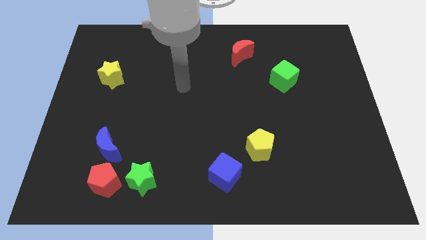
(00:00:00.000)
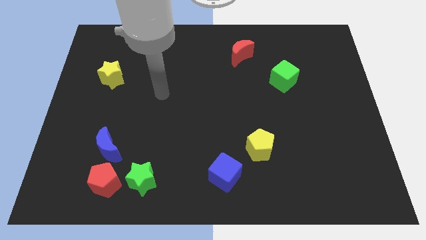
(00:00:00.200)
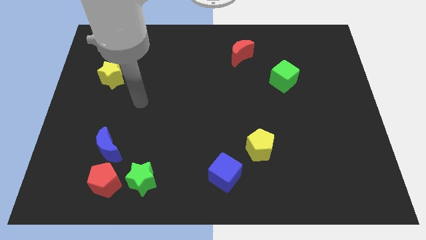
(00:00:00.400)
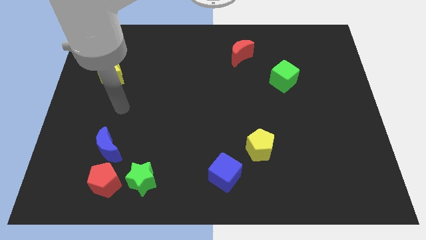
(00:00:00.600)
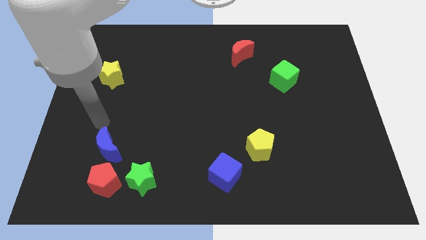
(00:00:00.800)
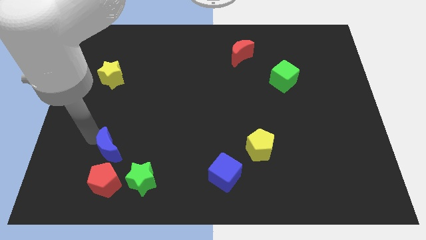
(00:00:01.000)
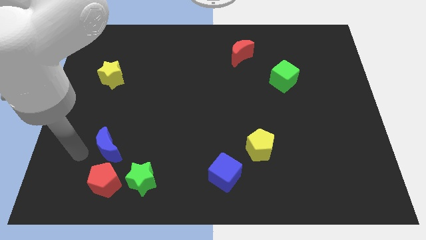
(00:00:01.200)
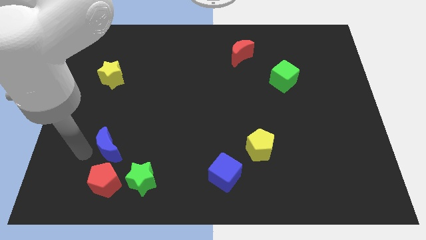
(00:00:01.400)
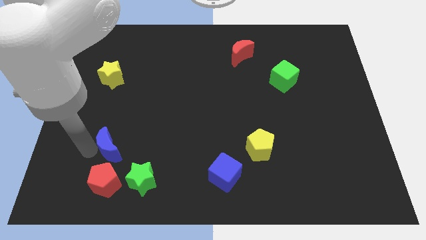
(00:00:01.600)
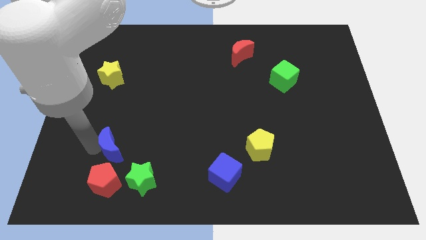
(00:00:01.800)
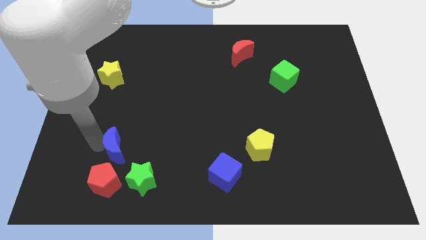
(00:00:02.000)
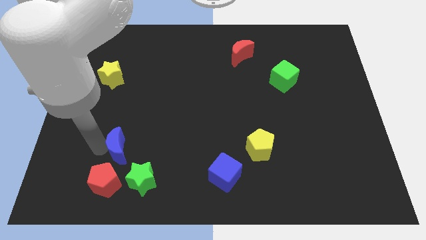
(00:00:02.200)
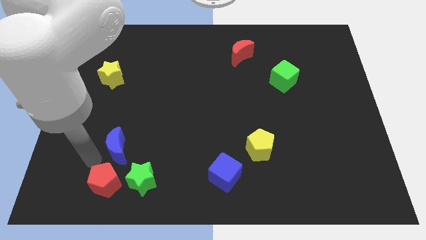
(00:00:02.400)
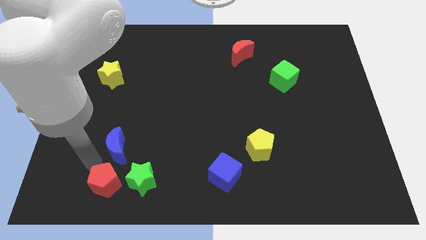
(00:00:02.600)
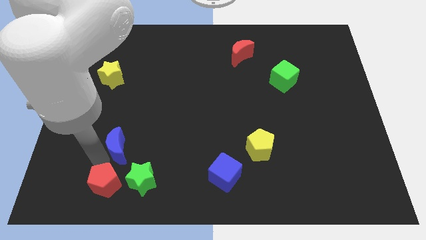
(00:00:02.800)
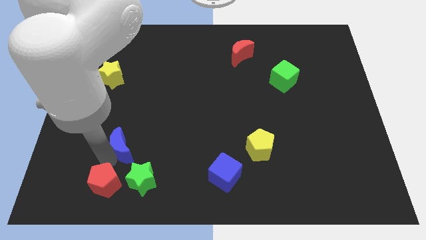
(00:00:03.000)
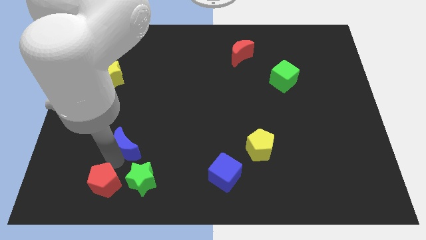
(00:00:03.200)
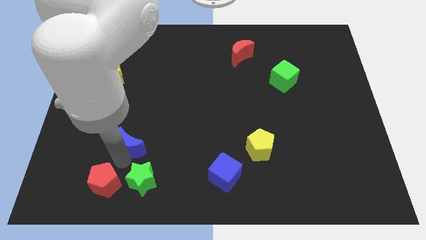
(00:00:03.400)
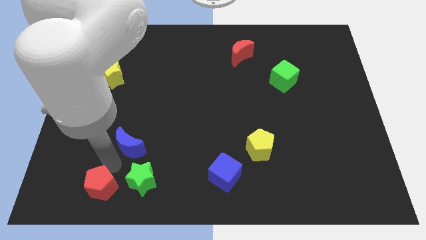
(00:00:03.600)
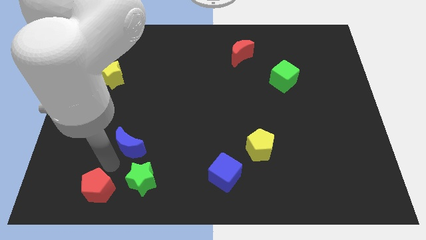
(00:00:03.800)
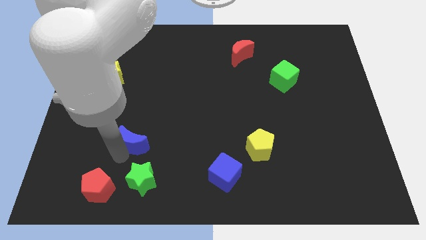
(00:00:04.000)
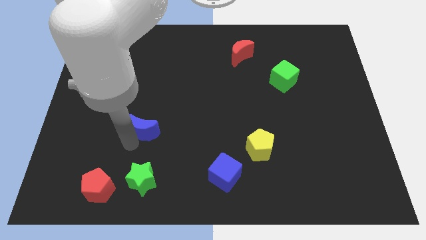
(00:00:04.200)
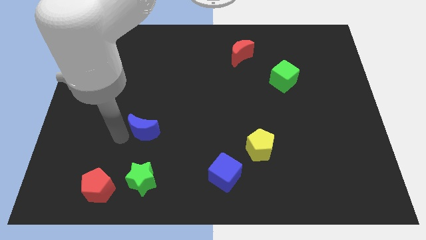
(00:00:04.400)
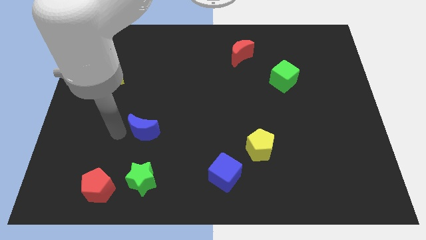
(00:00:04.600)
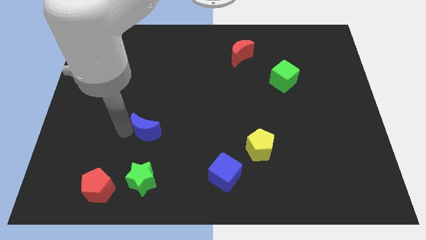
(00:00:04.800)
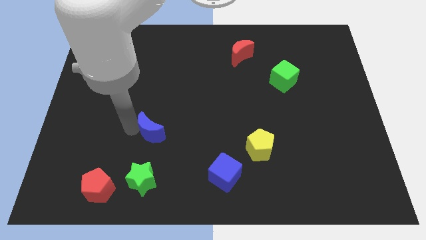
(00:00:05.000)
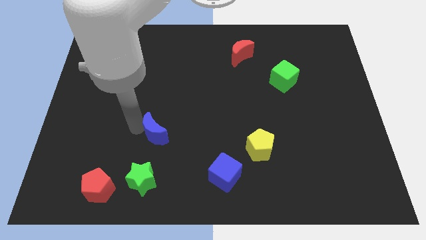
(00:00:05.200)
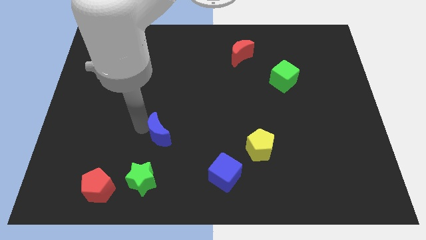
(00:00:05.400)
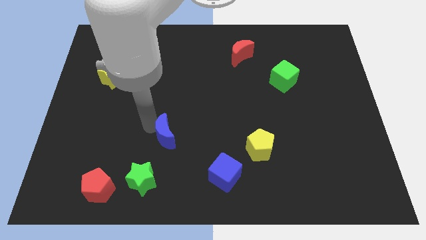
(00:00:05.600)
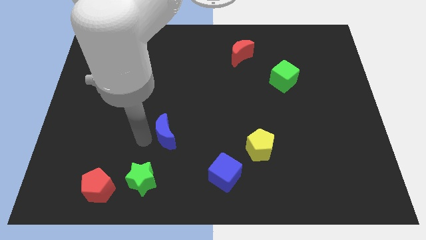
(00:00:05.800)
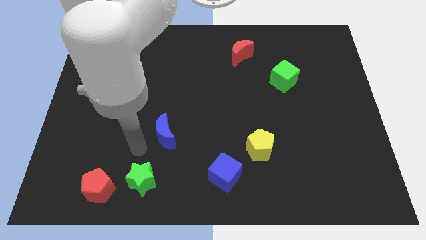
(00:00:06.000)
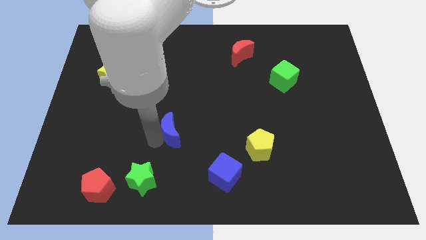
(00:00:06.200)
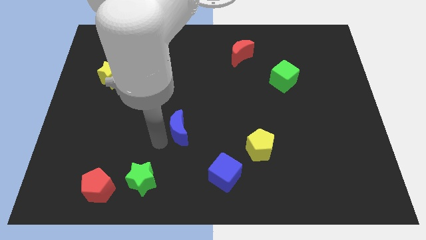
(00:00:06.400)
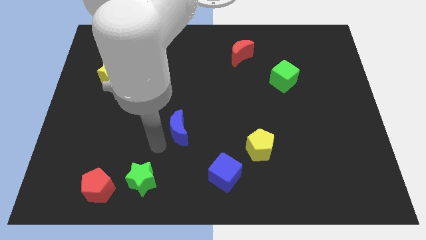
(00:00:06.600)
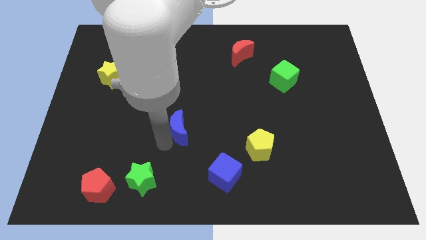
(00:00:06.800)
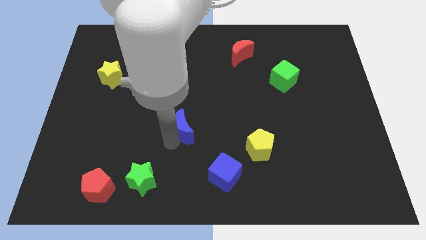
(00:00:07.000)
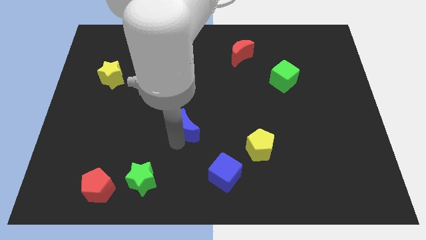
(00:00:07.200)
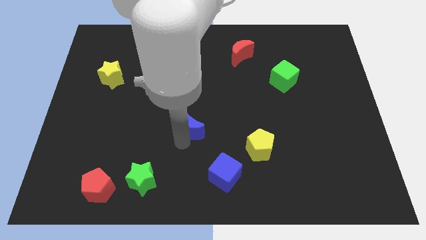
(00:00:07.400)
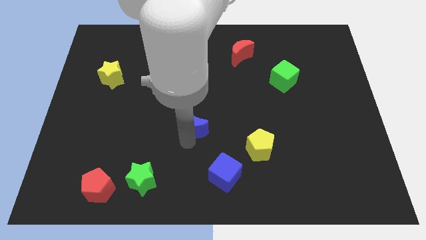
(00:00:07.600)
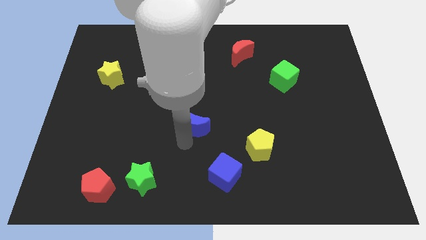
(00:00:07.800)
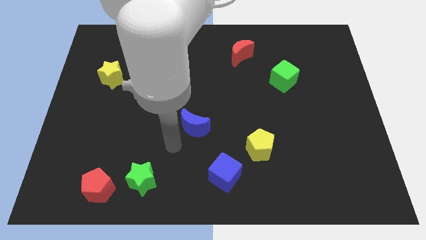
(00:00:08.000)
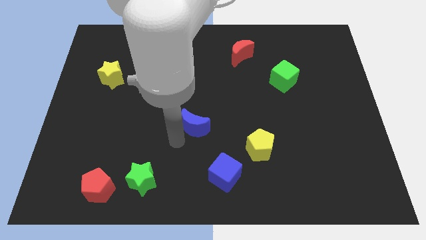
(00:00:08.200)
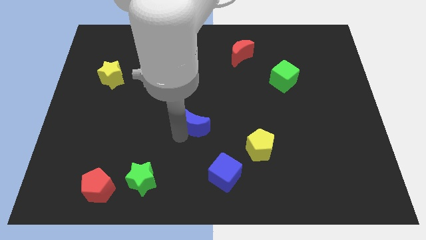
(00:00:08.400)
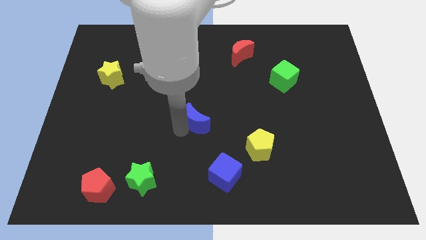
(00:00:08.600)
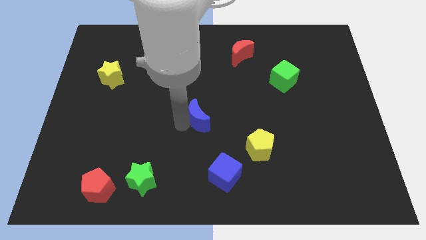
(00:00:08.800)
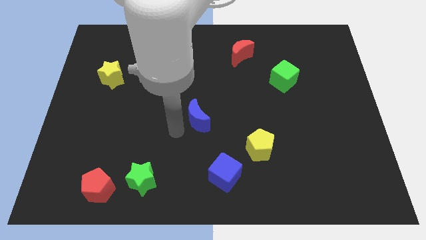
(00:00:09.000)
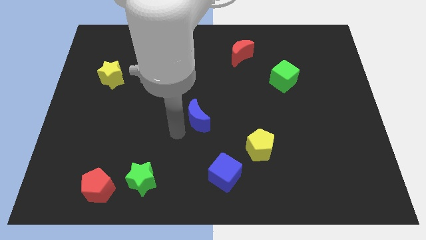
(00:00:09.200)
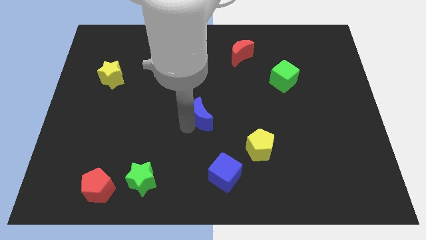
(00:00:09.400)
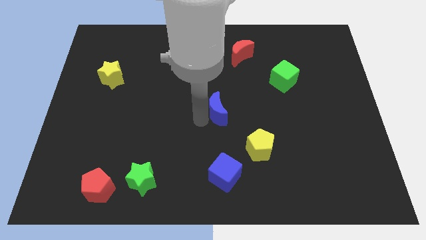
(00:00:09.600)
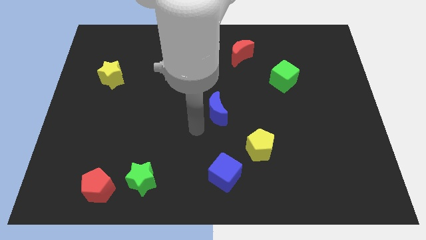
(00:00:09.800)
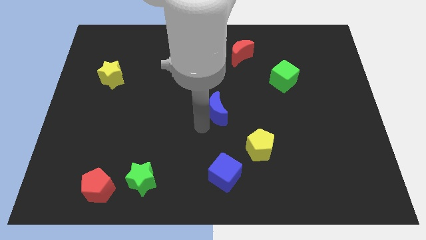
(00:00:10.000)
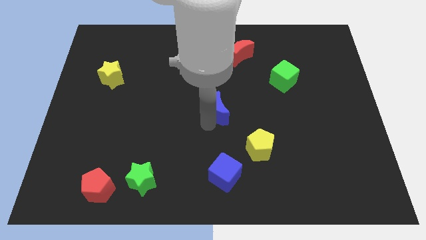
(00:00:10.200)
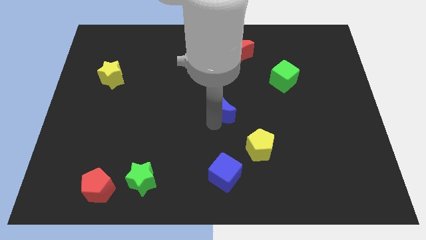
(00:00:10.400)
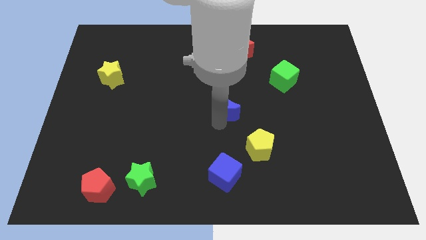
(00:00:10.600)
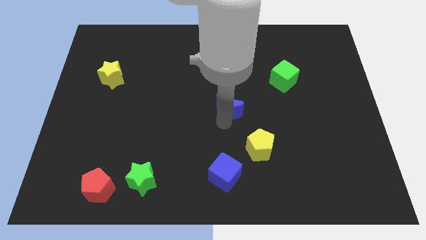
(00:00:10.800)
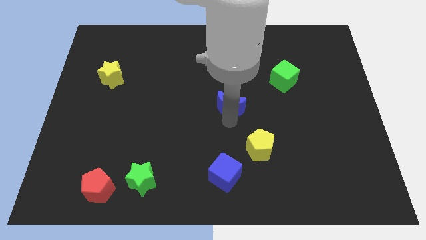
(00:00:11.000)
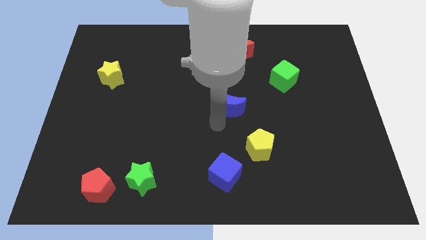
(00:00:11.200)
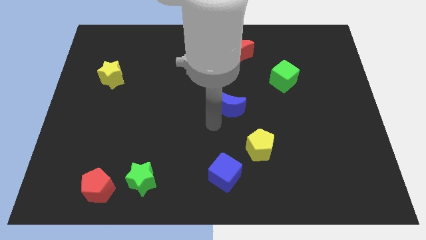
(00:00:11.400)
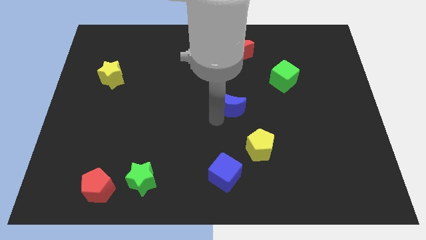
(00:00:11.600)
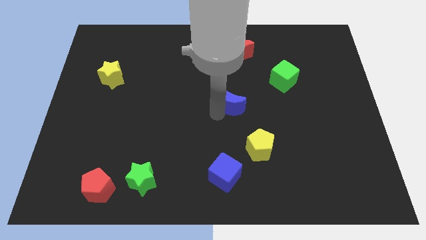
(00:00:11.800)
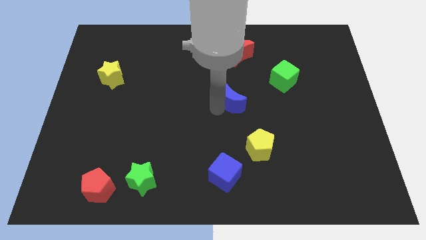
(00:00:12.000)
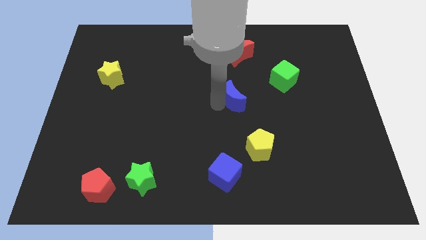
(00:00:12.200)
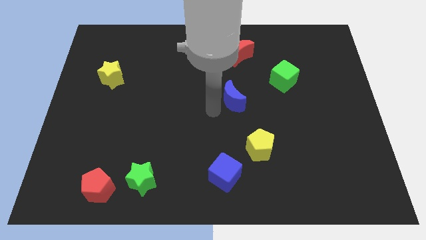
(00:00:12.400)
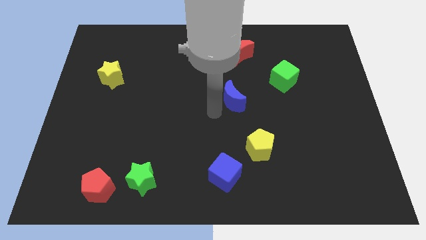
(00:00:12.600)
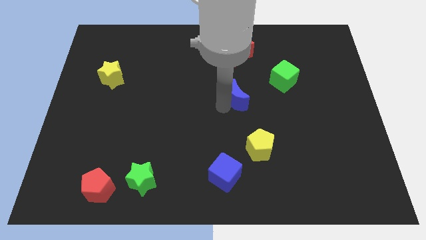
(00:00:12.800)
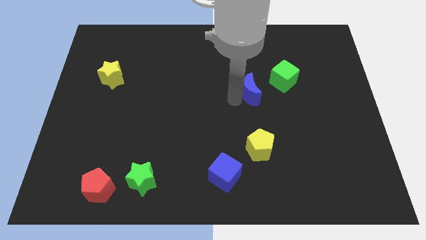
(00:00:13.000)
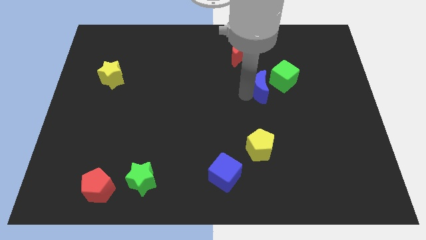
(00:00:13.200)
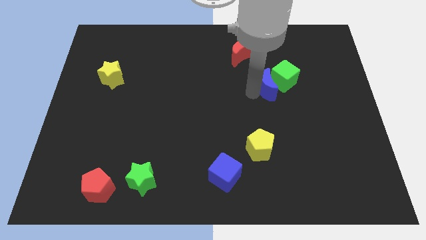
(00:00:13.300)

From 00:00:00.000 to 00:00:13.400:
push the blue moon towards the green cube

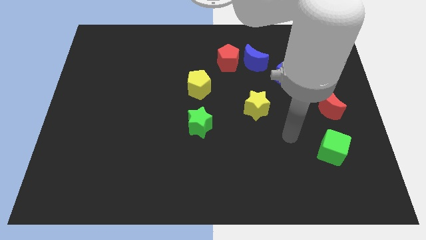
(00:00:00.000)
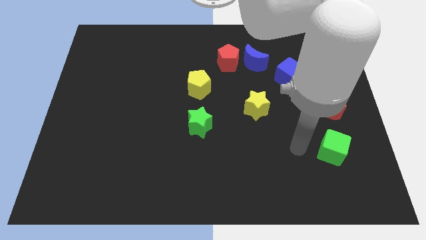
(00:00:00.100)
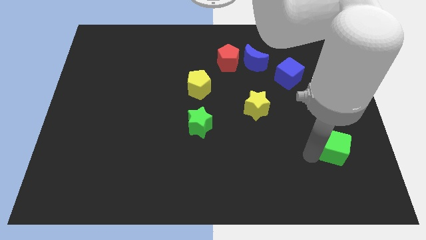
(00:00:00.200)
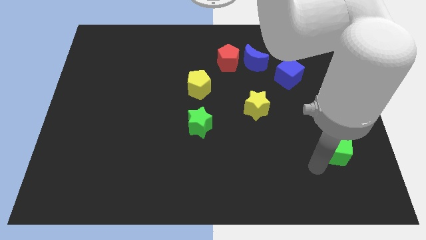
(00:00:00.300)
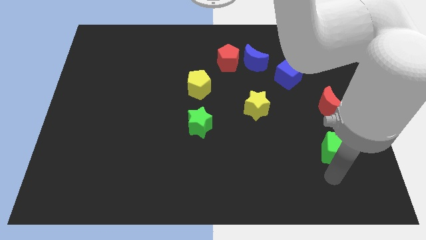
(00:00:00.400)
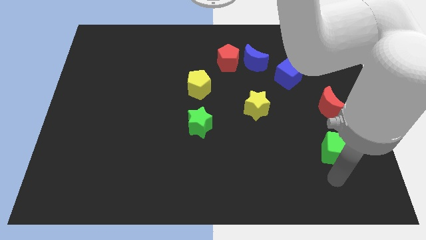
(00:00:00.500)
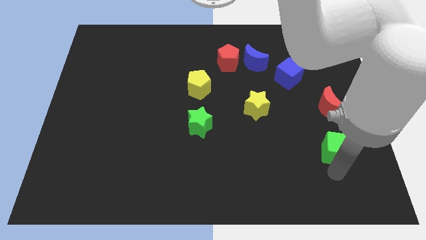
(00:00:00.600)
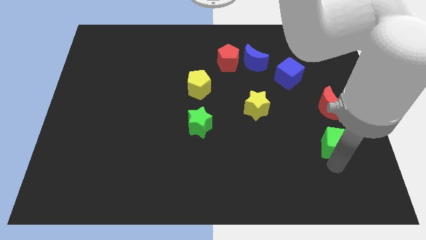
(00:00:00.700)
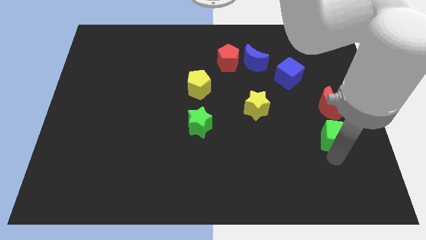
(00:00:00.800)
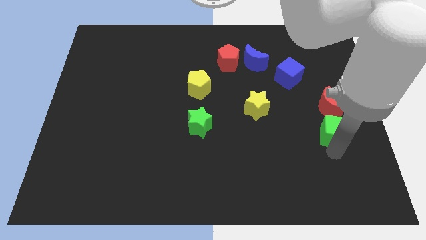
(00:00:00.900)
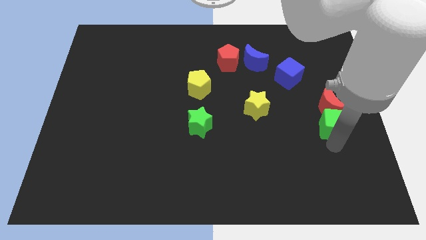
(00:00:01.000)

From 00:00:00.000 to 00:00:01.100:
put the green cube towards the red moon
